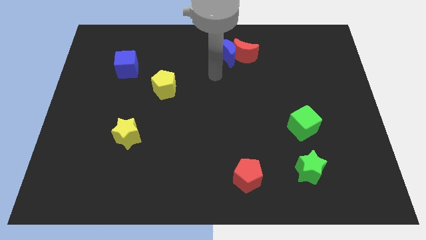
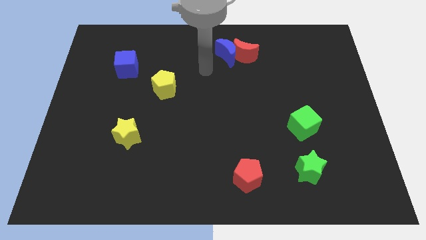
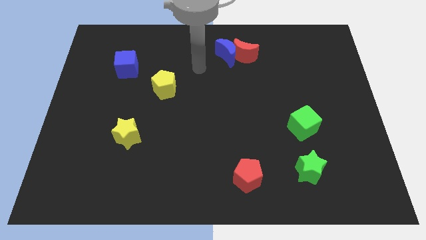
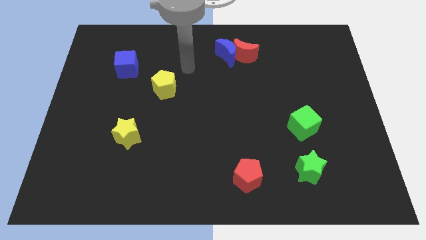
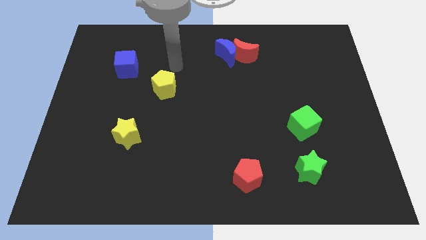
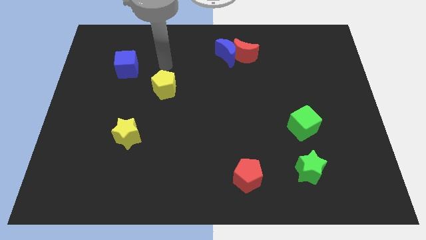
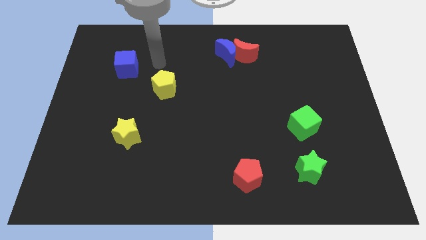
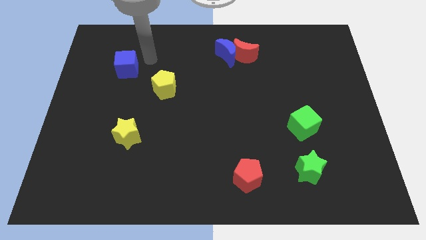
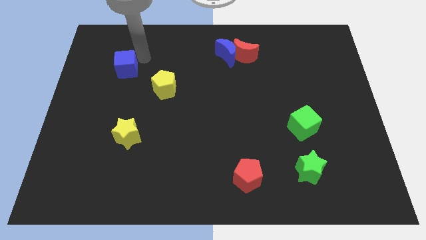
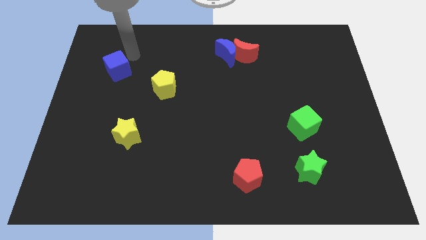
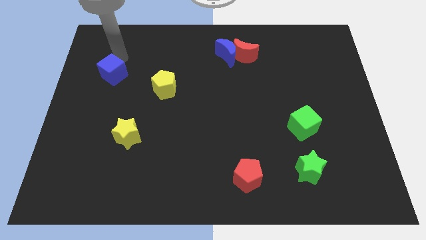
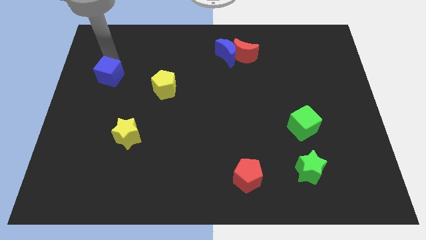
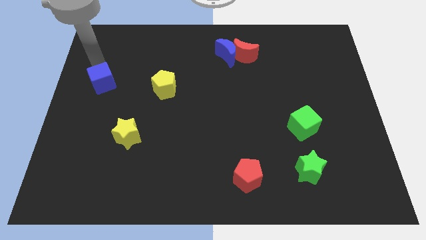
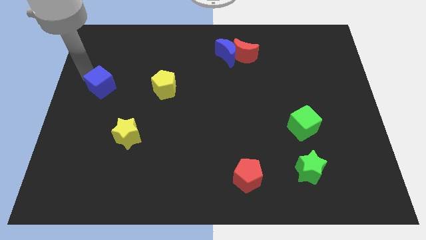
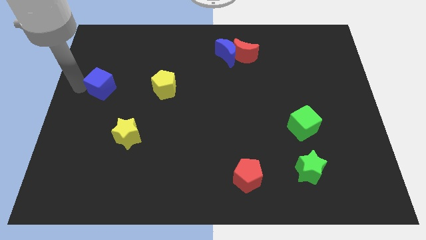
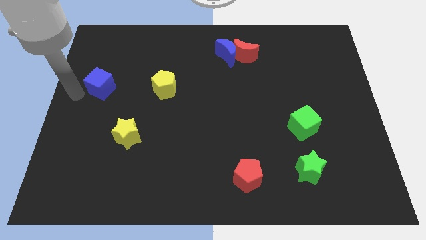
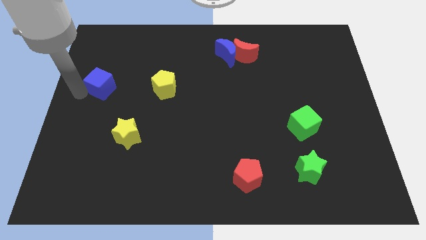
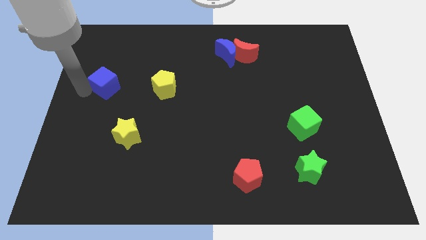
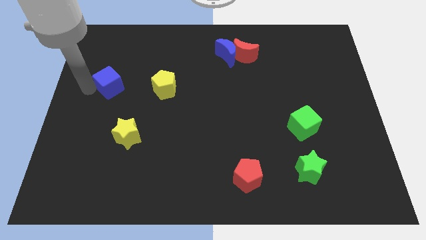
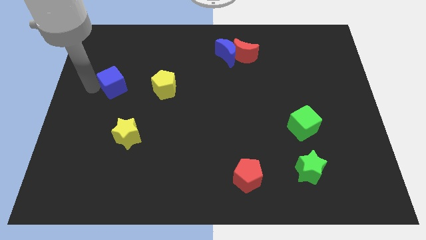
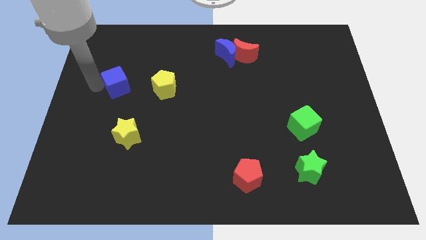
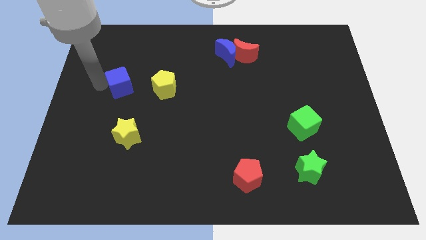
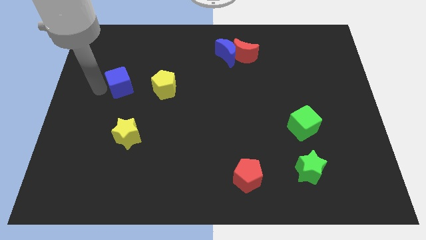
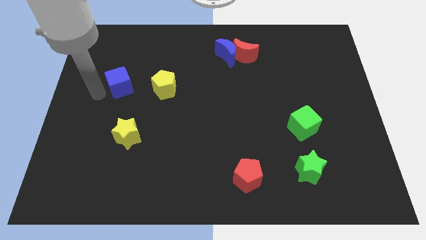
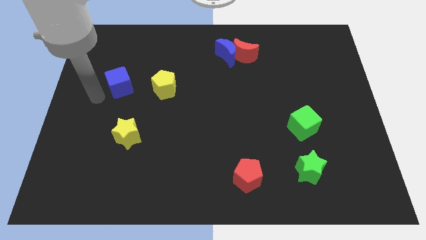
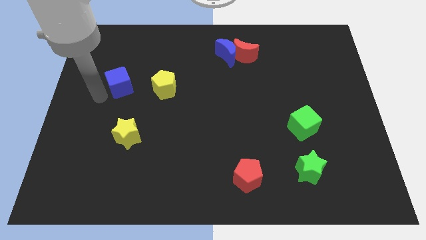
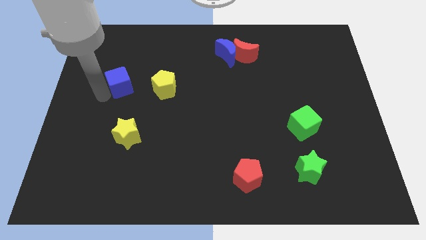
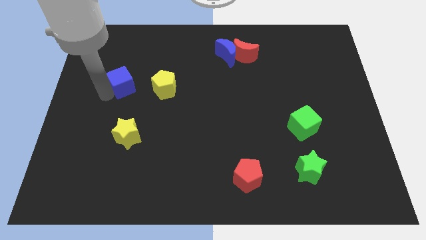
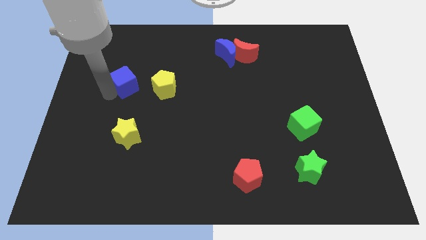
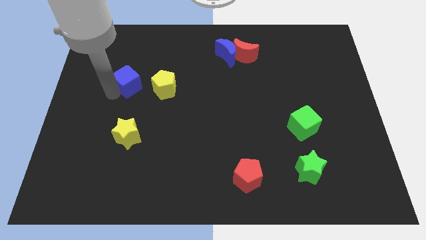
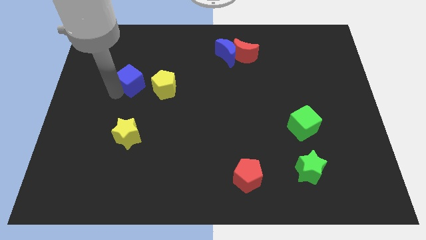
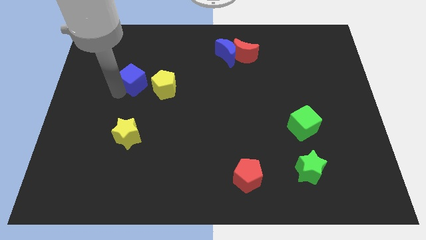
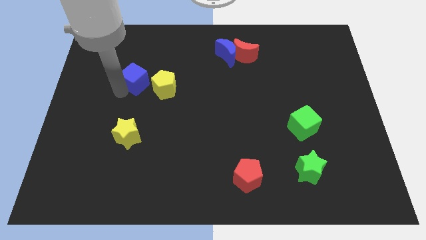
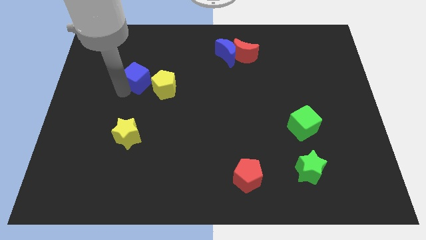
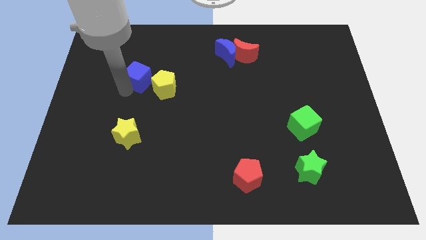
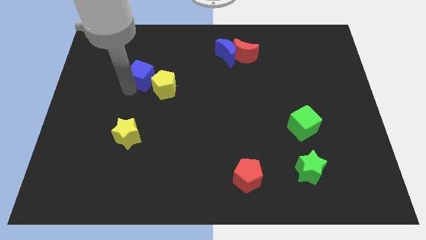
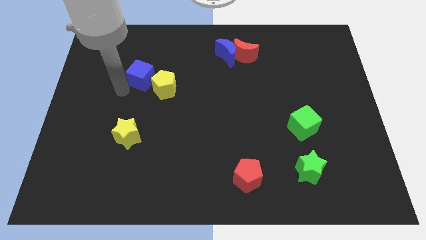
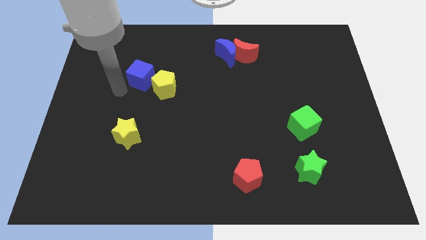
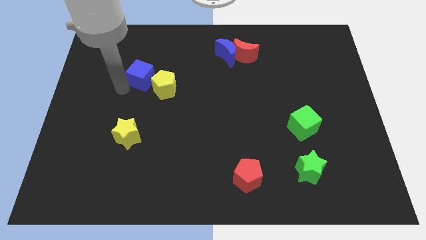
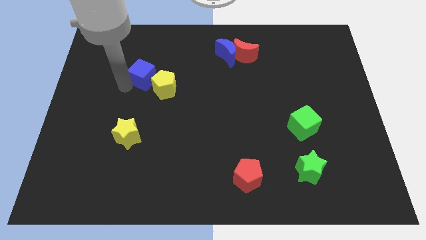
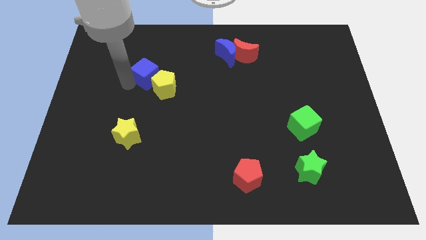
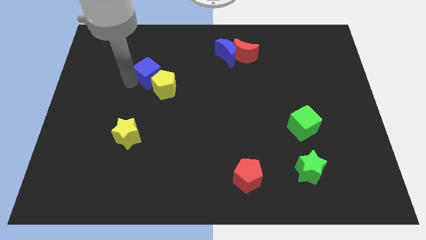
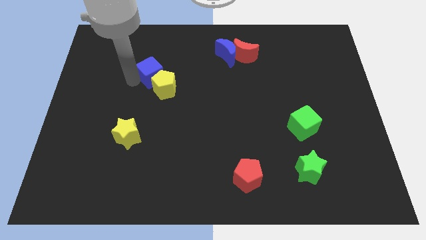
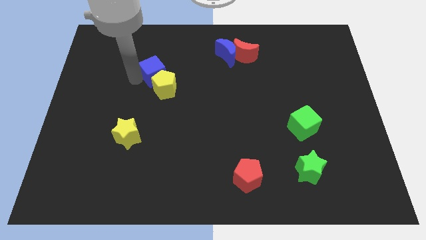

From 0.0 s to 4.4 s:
slightly move the blue cube right

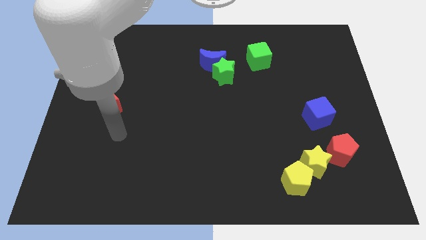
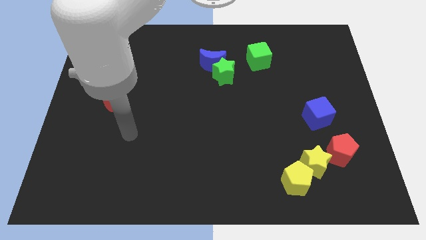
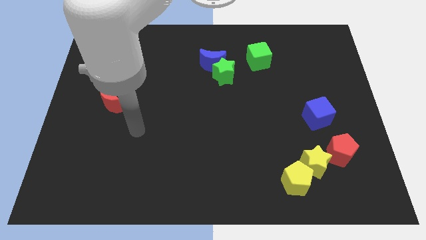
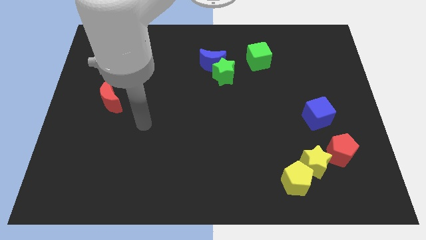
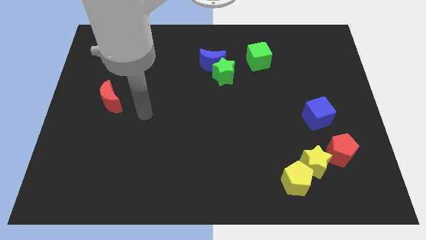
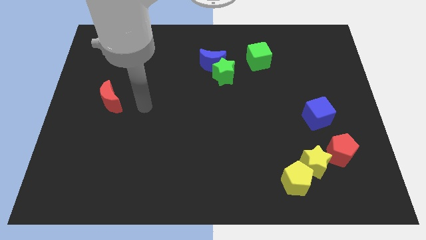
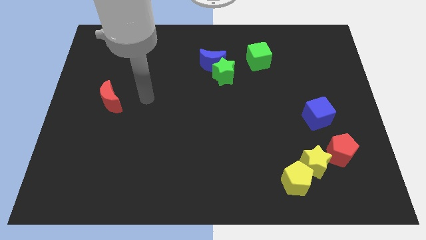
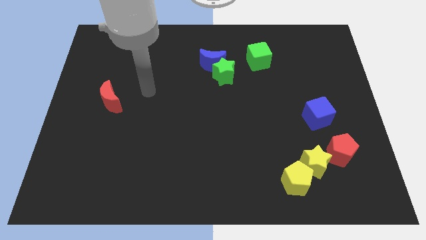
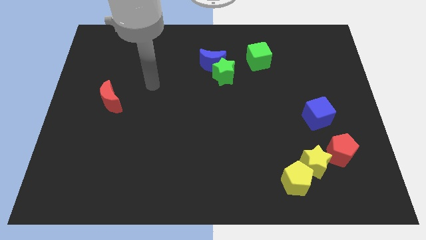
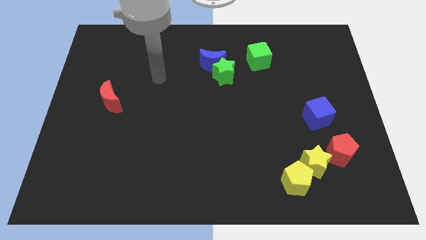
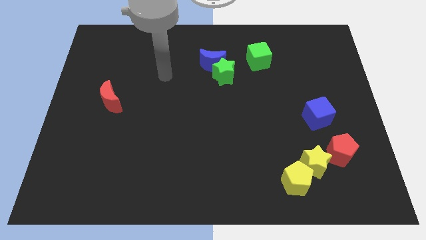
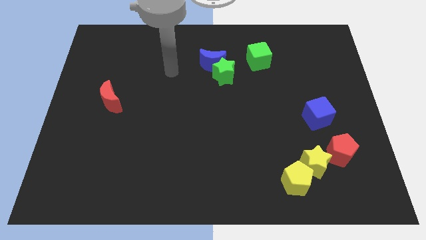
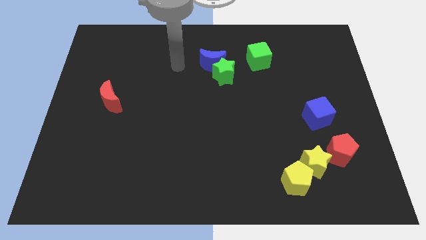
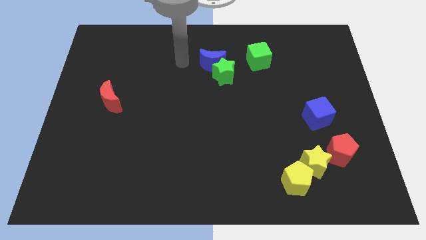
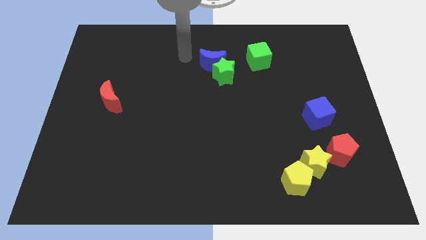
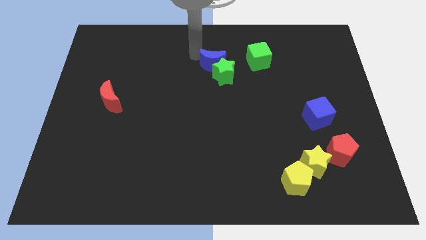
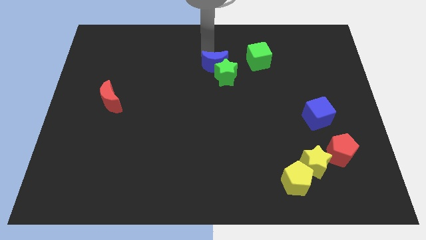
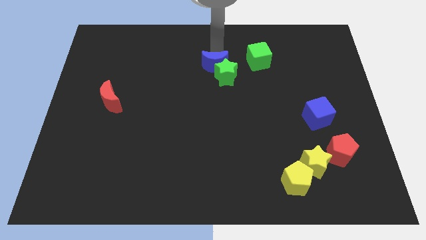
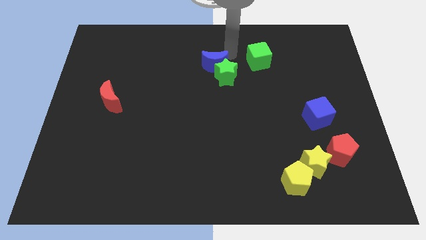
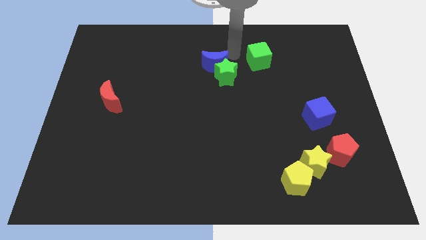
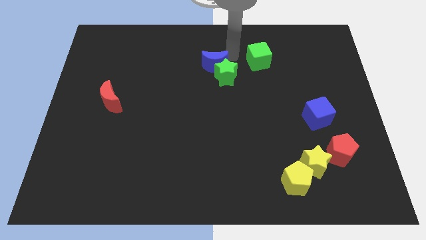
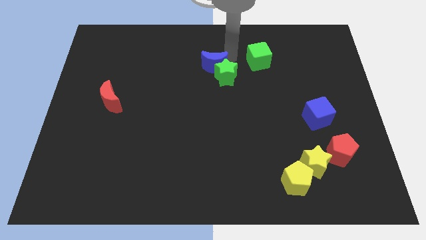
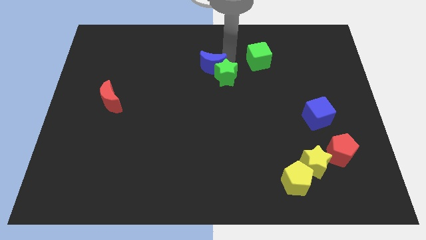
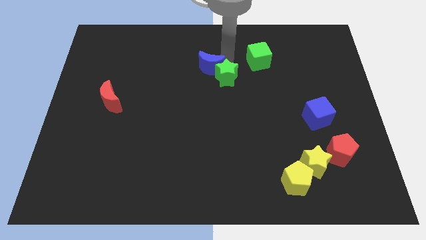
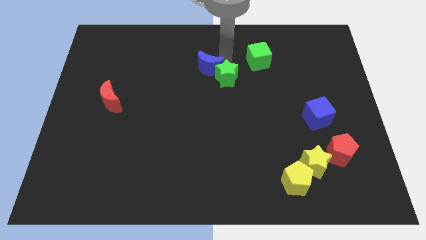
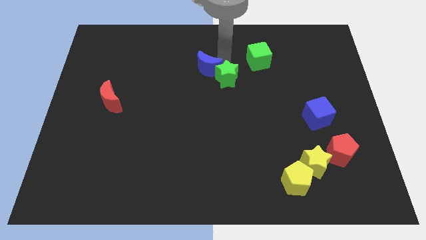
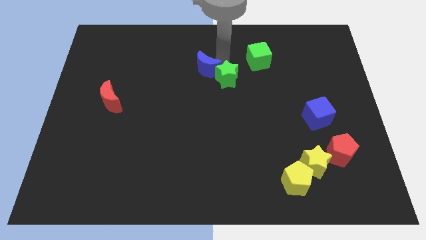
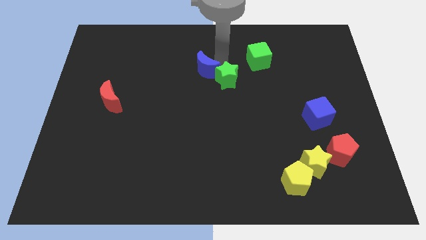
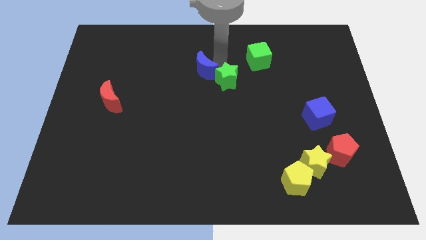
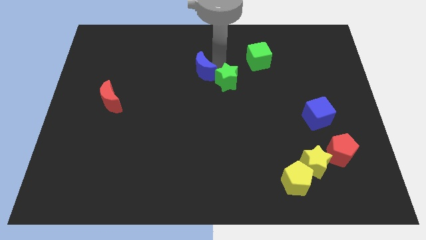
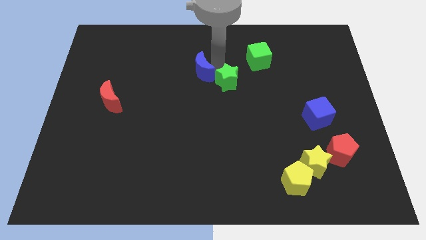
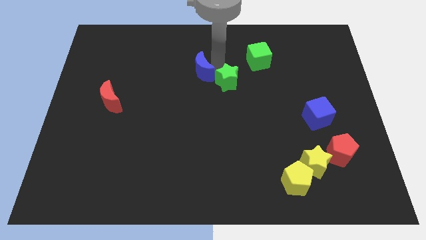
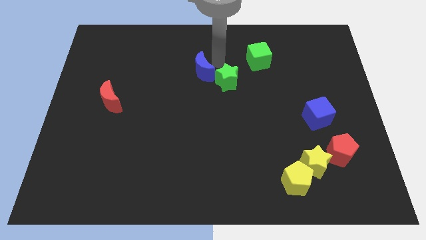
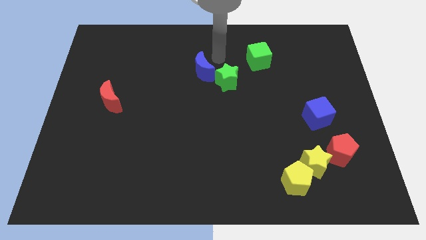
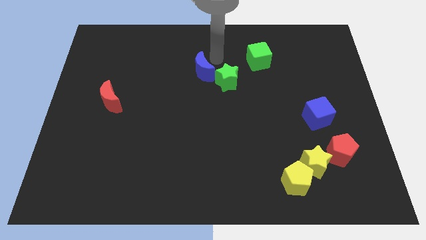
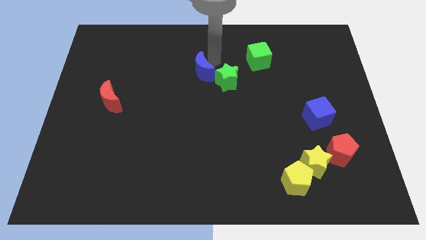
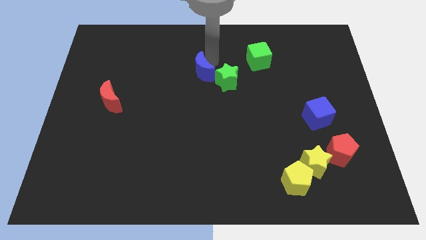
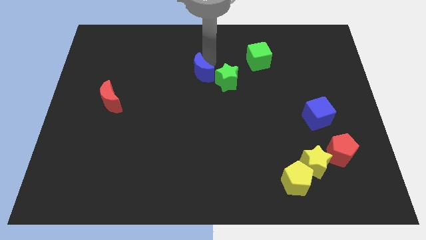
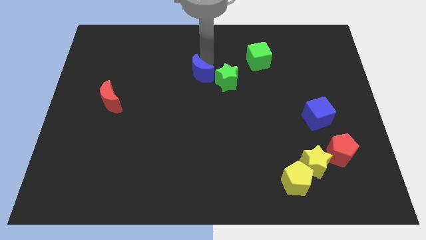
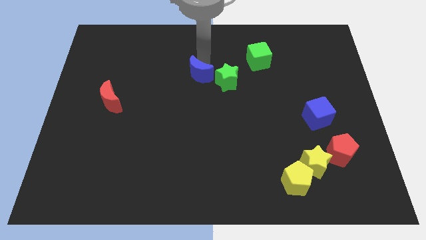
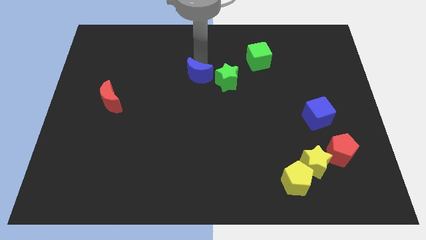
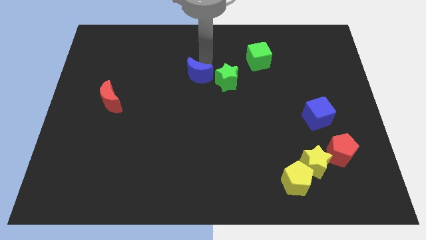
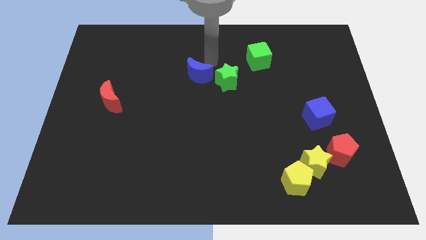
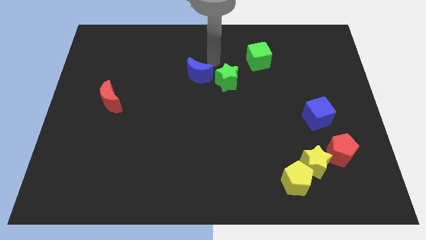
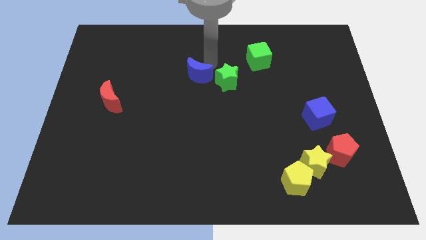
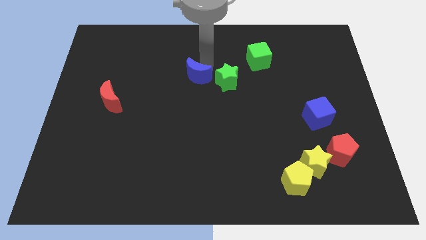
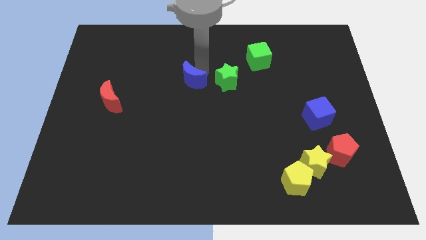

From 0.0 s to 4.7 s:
slightly push the blue moon downwards and to the left
